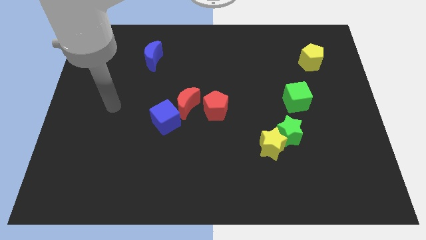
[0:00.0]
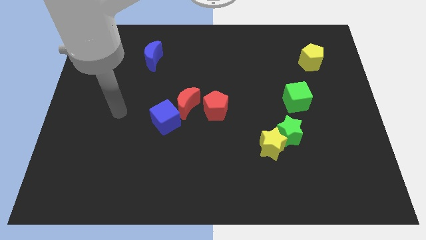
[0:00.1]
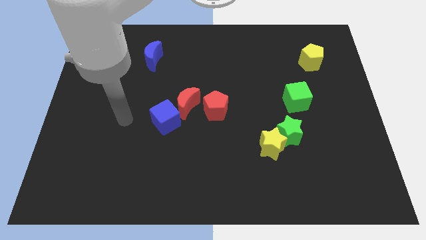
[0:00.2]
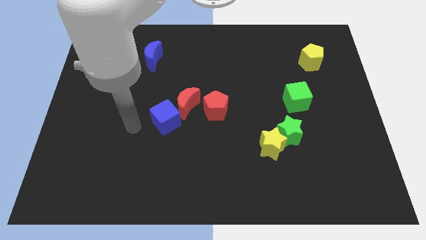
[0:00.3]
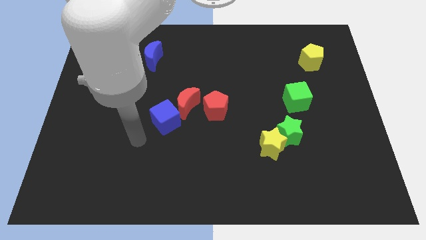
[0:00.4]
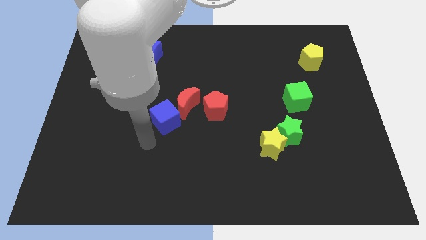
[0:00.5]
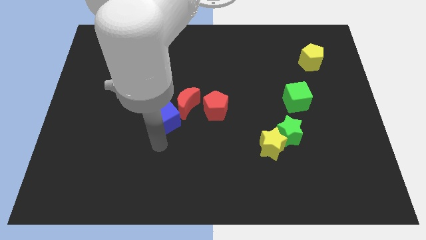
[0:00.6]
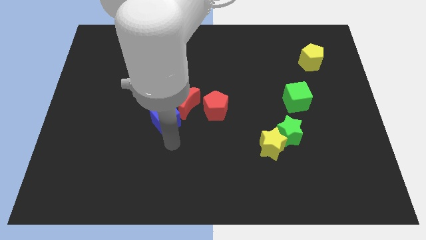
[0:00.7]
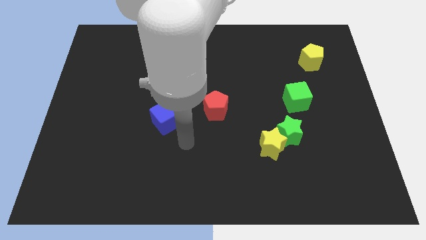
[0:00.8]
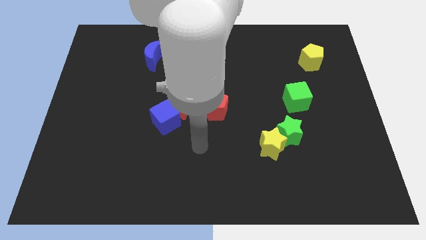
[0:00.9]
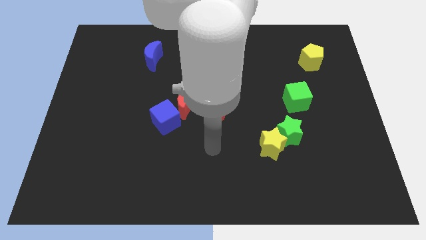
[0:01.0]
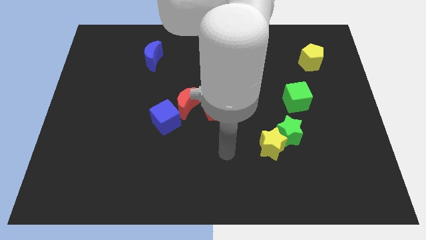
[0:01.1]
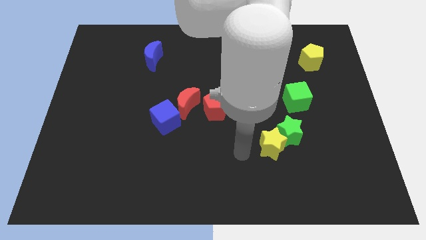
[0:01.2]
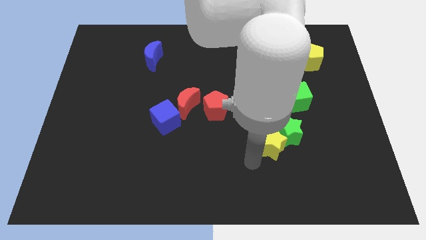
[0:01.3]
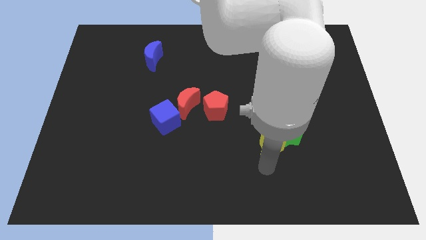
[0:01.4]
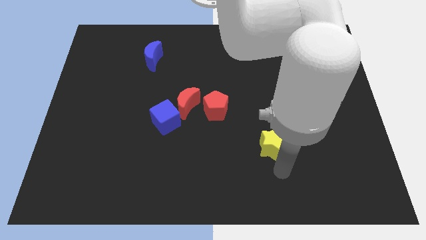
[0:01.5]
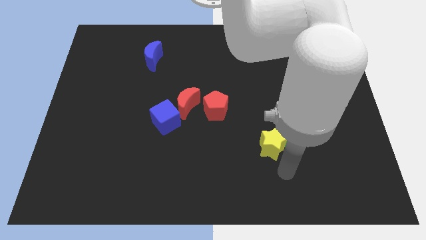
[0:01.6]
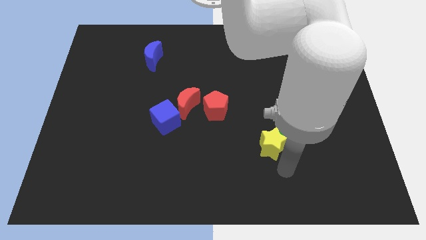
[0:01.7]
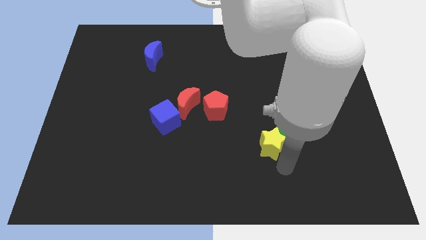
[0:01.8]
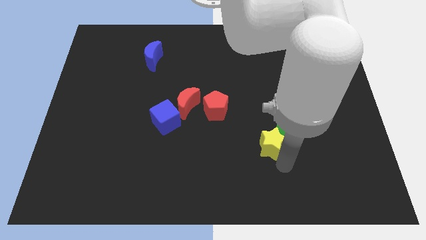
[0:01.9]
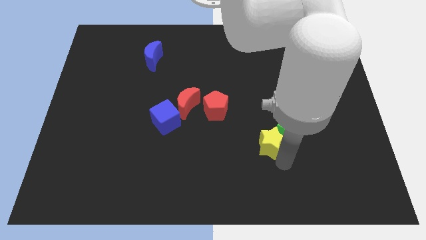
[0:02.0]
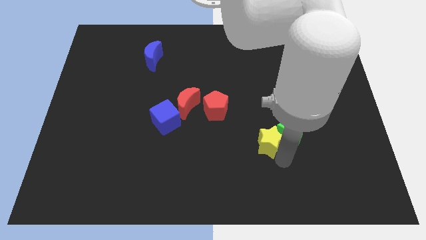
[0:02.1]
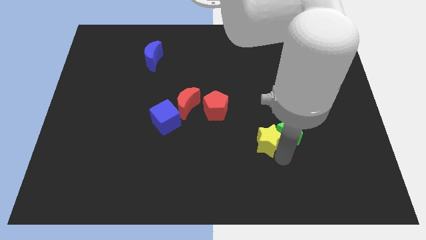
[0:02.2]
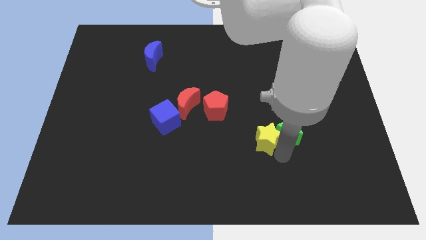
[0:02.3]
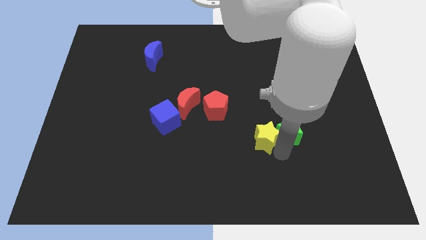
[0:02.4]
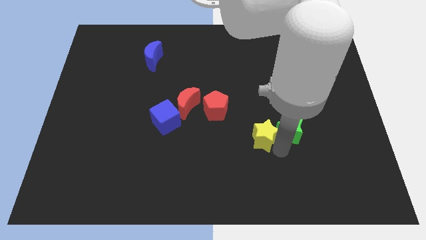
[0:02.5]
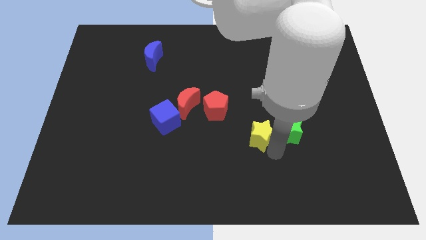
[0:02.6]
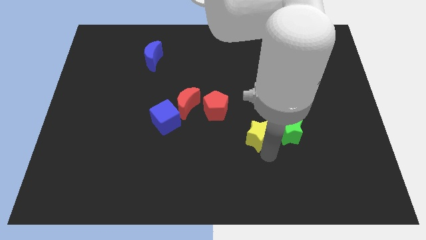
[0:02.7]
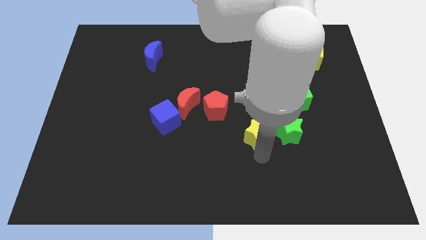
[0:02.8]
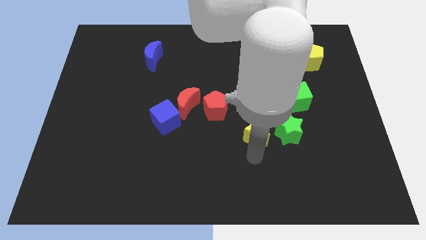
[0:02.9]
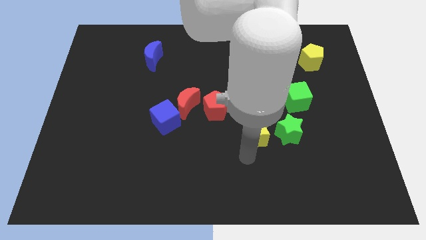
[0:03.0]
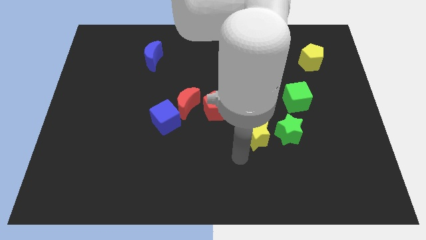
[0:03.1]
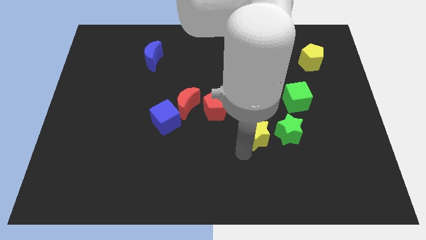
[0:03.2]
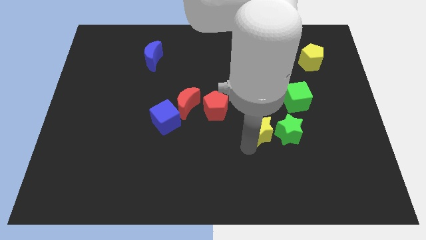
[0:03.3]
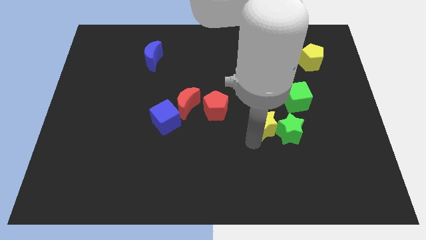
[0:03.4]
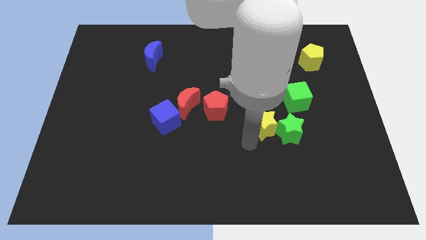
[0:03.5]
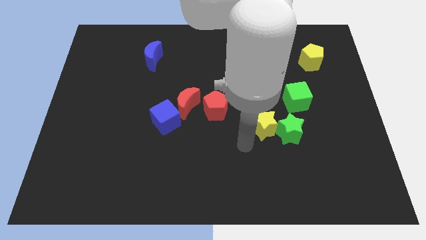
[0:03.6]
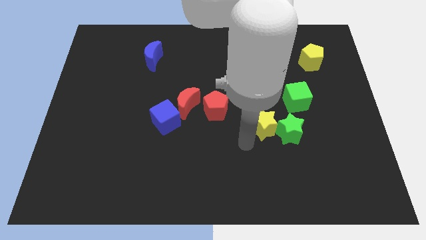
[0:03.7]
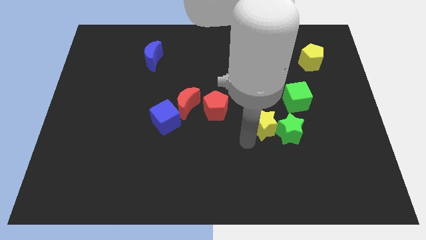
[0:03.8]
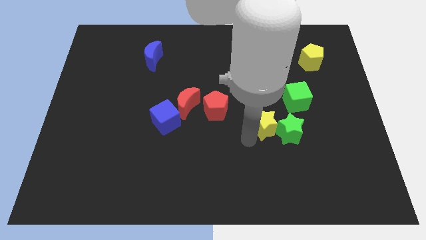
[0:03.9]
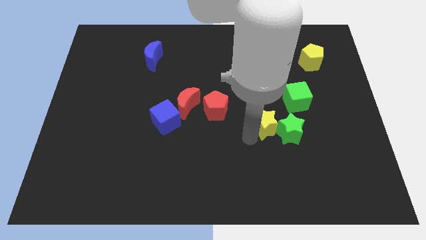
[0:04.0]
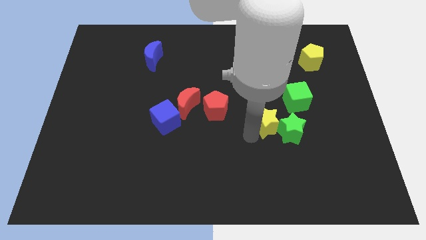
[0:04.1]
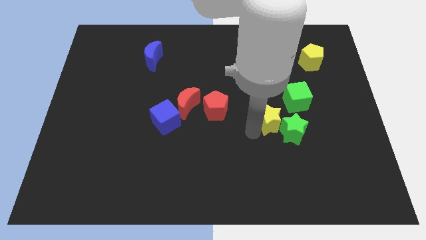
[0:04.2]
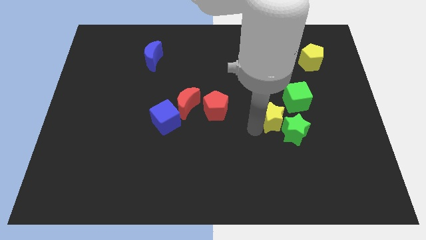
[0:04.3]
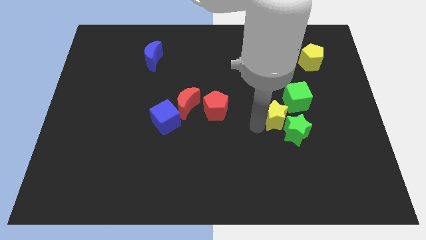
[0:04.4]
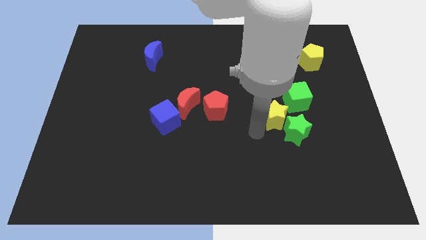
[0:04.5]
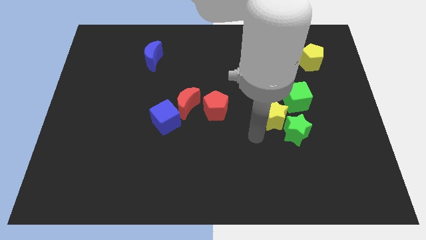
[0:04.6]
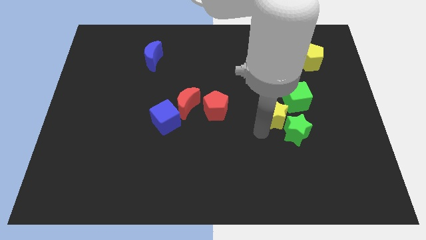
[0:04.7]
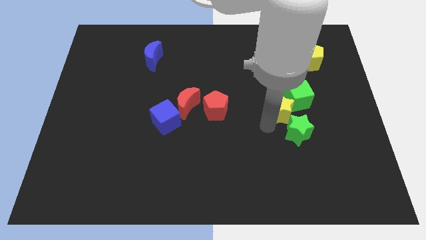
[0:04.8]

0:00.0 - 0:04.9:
move the yellow star next to the green cube

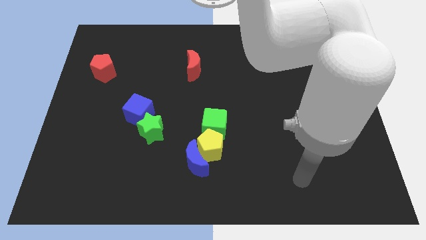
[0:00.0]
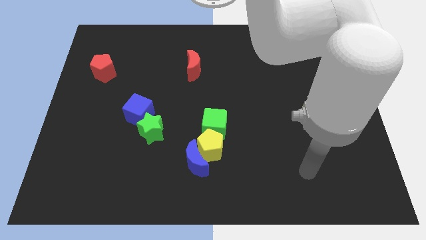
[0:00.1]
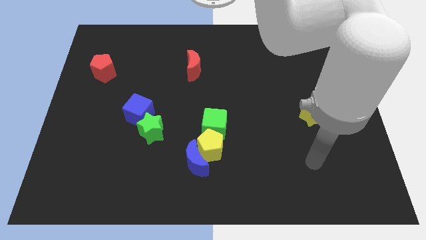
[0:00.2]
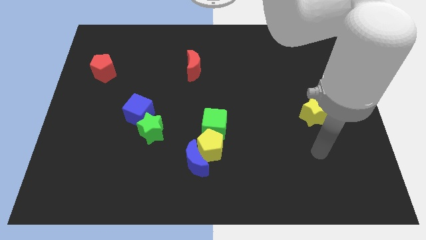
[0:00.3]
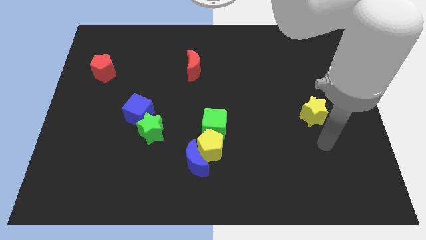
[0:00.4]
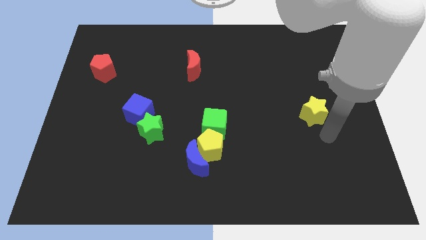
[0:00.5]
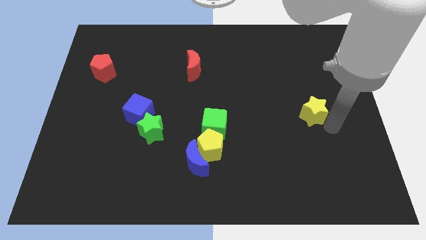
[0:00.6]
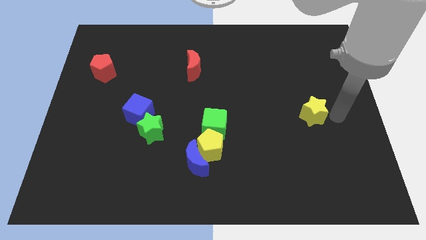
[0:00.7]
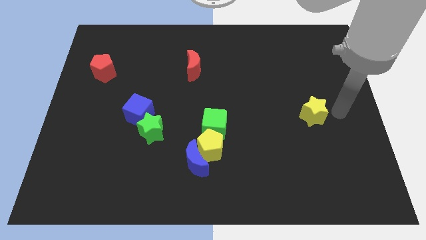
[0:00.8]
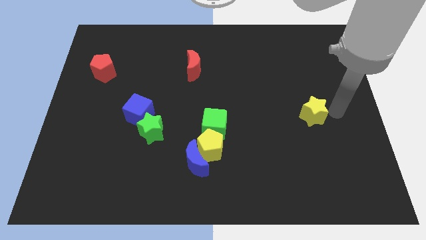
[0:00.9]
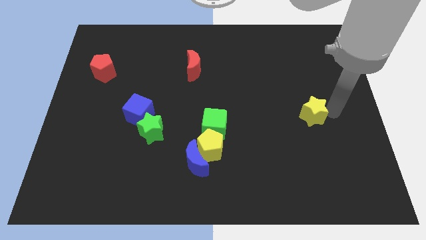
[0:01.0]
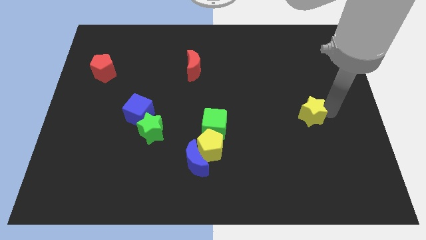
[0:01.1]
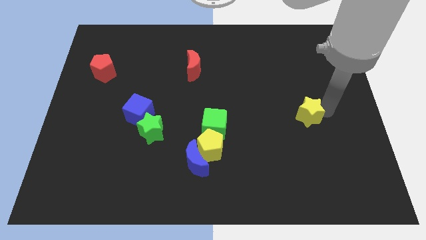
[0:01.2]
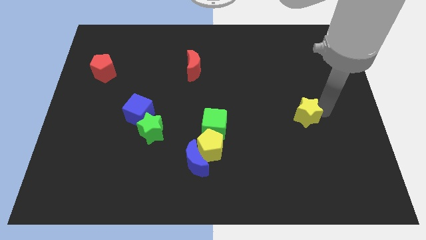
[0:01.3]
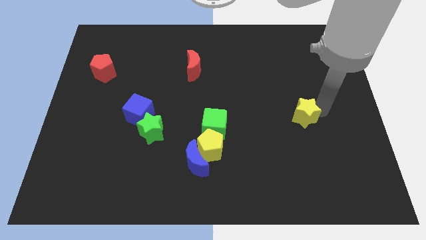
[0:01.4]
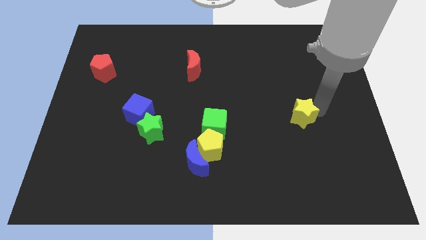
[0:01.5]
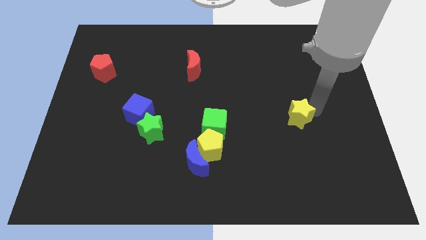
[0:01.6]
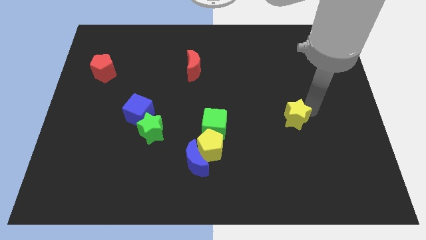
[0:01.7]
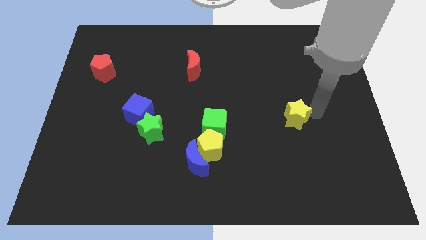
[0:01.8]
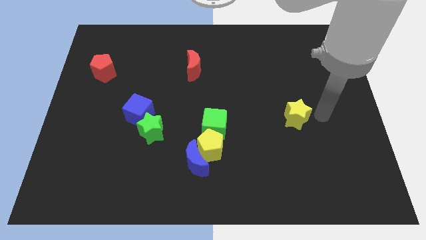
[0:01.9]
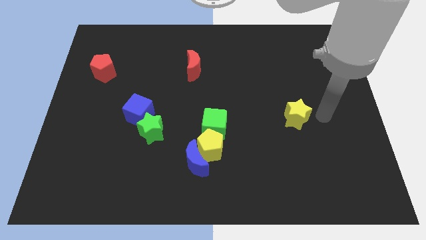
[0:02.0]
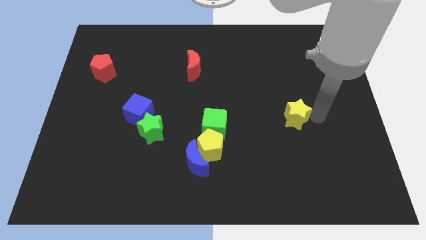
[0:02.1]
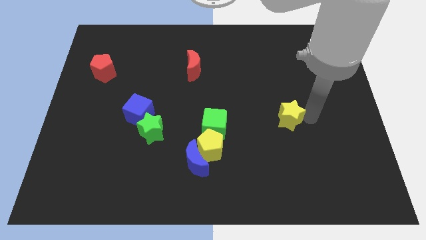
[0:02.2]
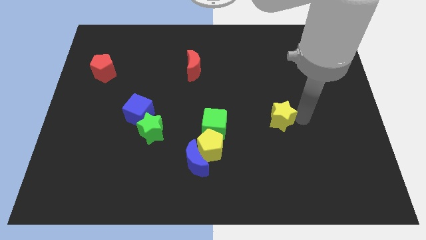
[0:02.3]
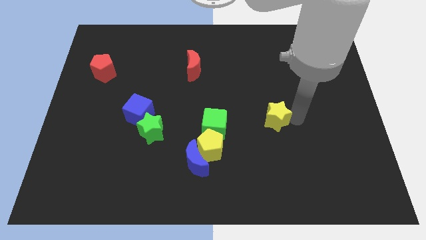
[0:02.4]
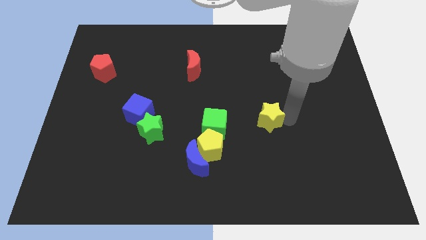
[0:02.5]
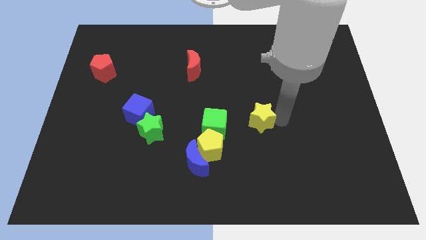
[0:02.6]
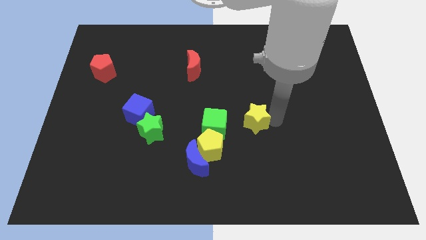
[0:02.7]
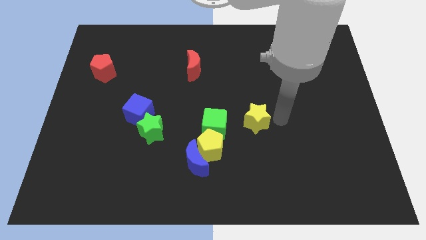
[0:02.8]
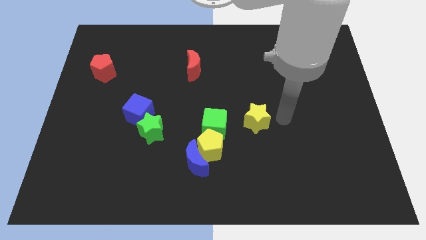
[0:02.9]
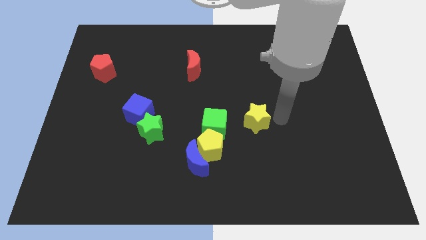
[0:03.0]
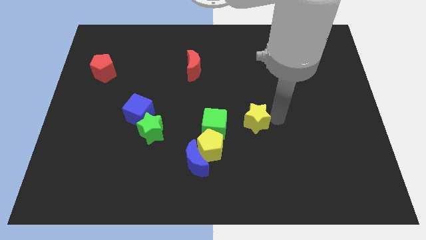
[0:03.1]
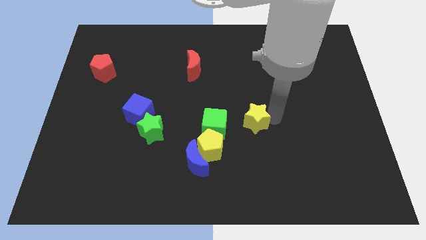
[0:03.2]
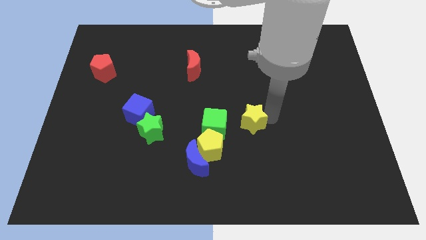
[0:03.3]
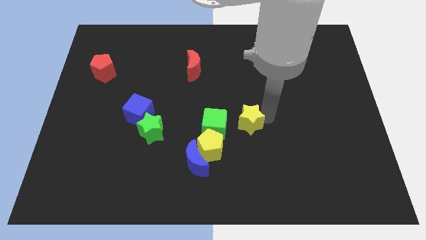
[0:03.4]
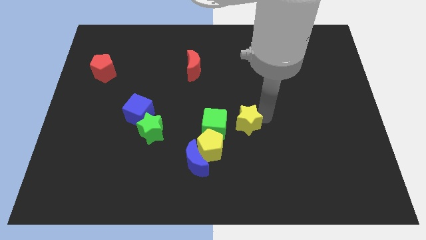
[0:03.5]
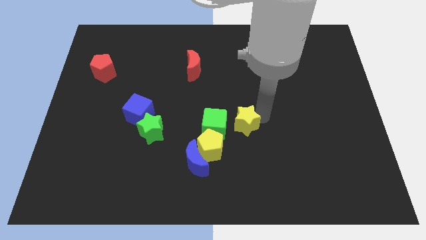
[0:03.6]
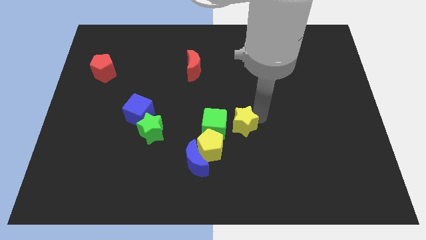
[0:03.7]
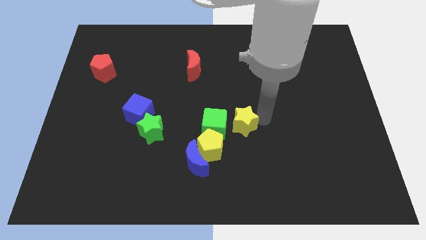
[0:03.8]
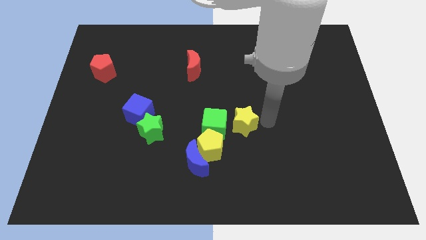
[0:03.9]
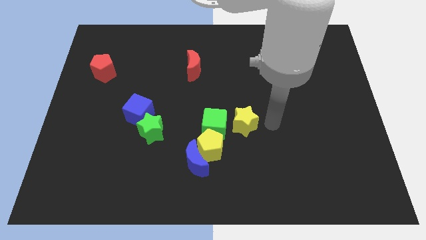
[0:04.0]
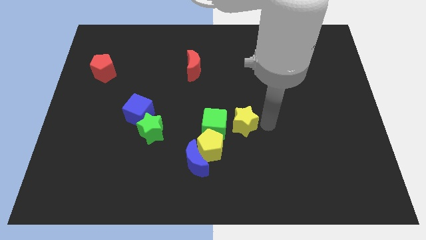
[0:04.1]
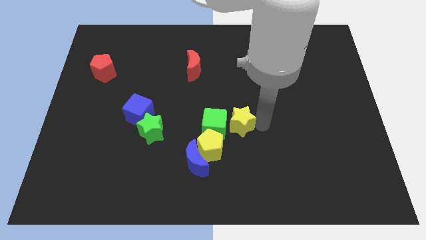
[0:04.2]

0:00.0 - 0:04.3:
slide the yellow star towards the green cube

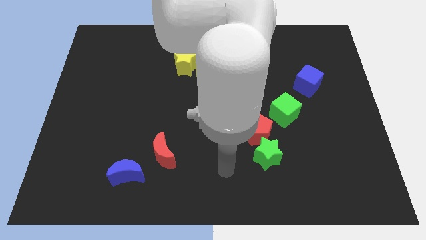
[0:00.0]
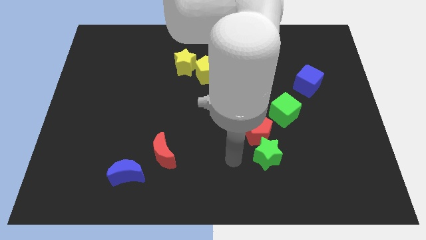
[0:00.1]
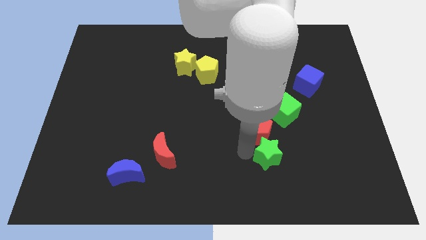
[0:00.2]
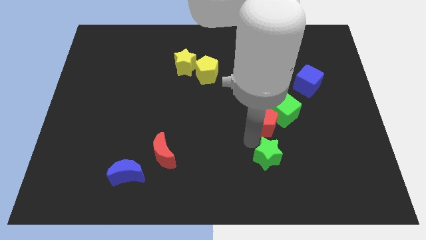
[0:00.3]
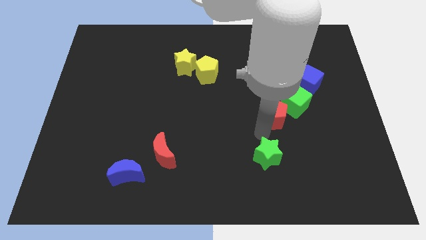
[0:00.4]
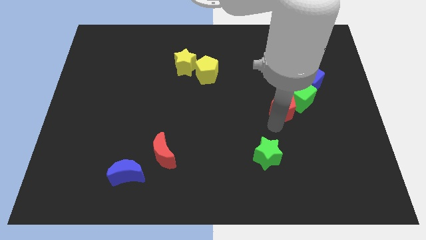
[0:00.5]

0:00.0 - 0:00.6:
slide the green cube close to the blue cube
